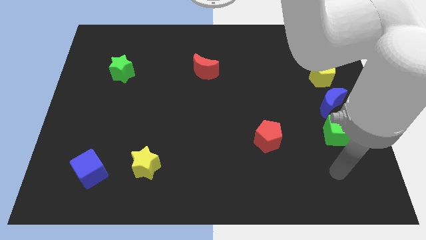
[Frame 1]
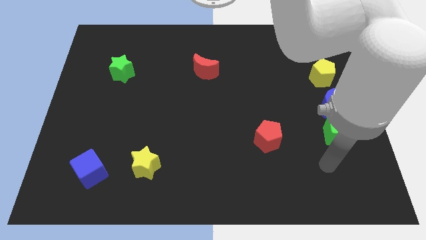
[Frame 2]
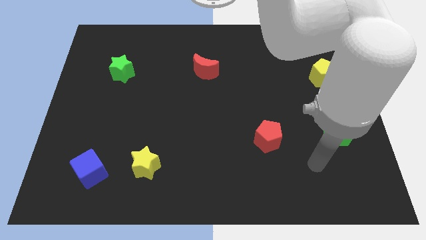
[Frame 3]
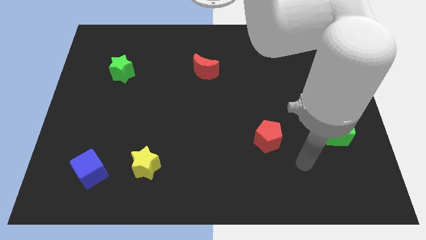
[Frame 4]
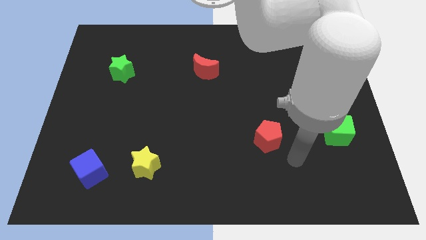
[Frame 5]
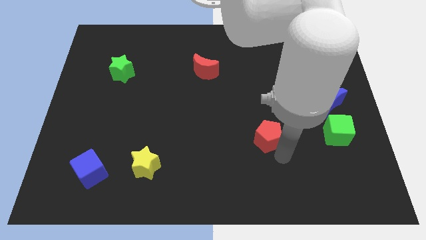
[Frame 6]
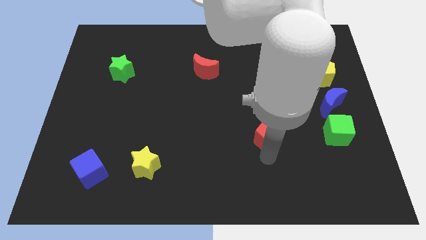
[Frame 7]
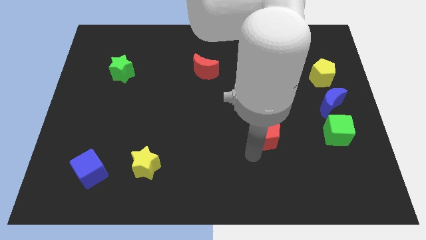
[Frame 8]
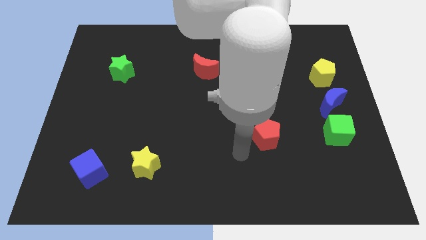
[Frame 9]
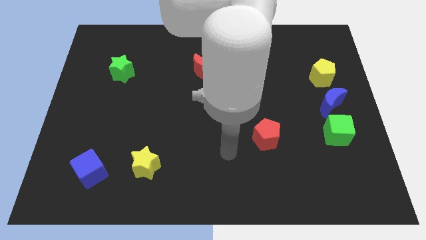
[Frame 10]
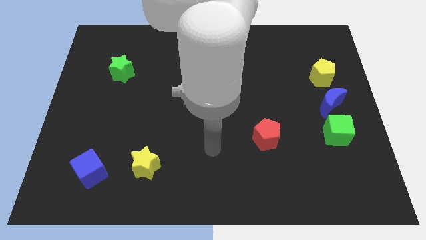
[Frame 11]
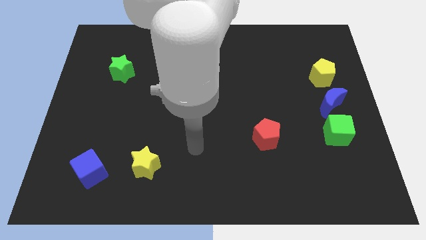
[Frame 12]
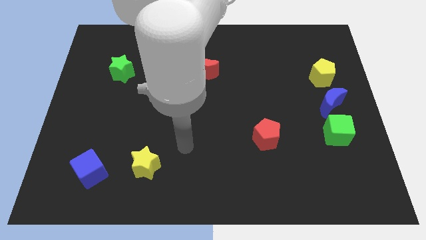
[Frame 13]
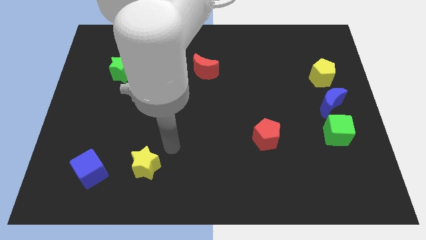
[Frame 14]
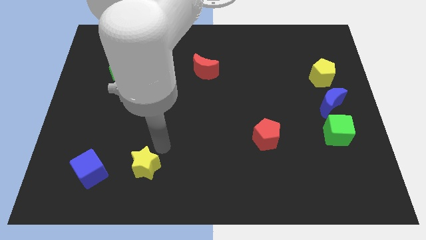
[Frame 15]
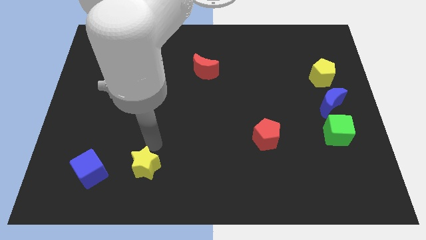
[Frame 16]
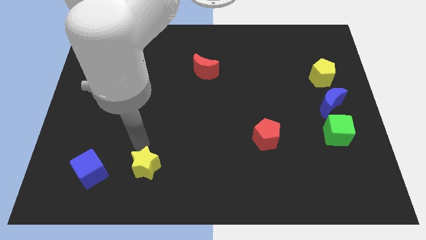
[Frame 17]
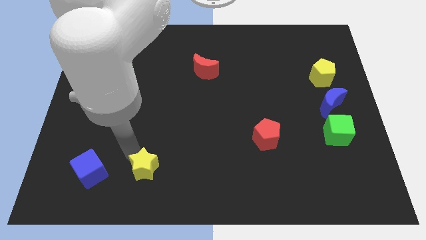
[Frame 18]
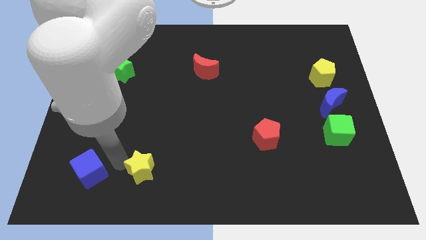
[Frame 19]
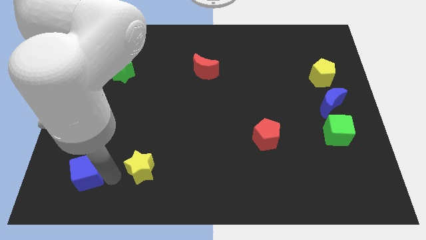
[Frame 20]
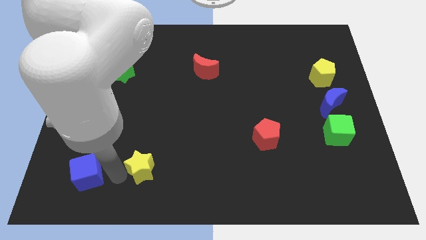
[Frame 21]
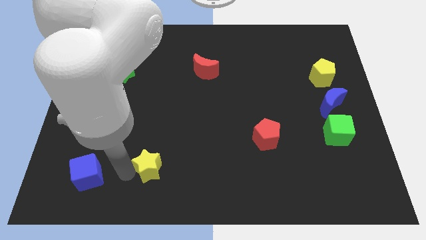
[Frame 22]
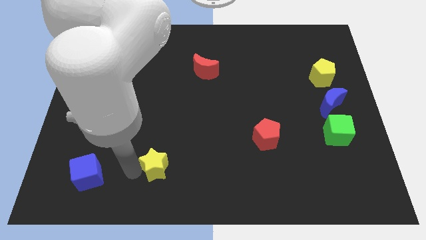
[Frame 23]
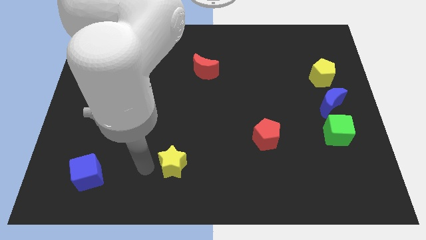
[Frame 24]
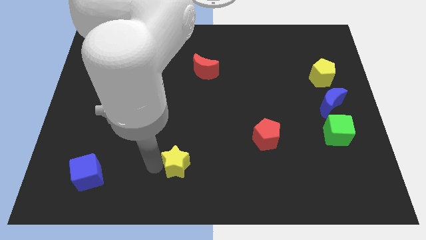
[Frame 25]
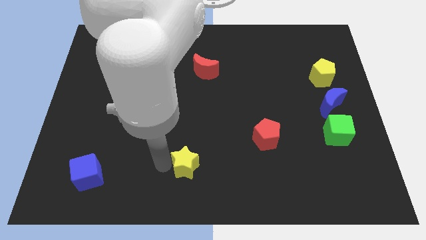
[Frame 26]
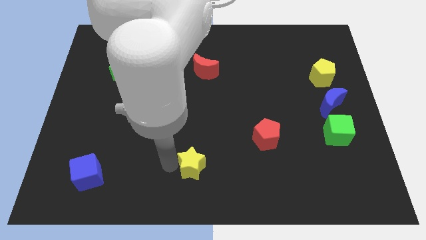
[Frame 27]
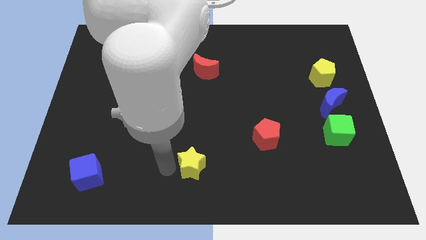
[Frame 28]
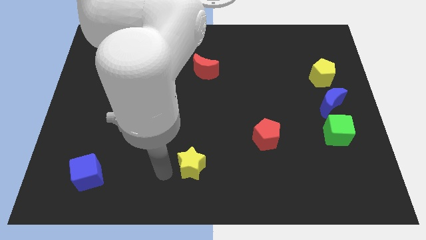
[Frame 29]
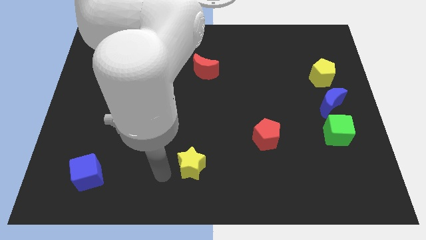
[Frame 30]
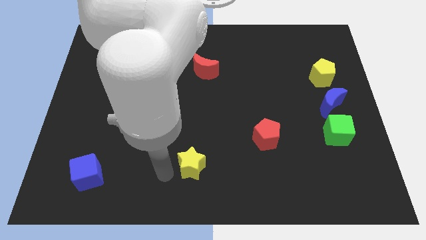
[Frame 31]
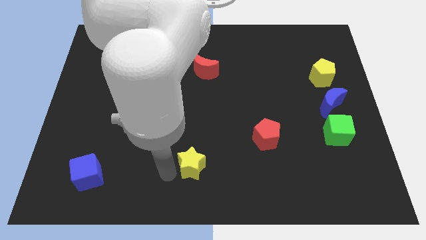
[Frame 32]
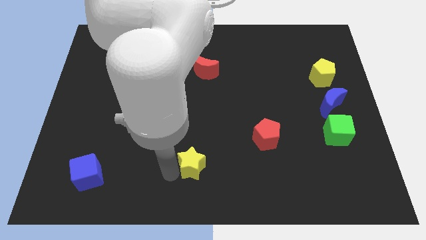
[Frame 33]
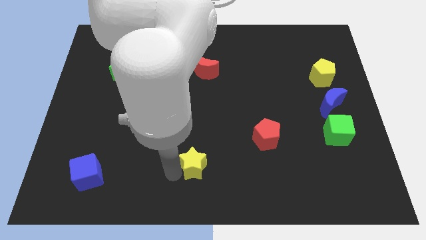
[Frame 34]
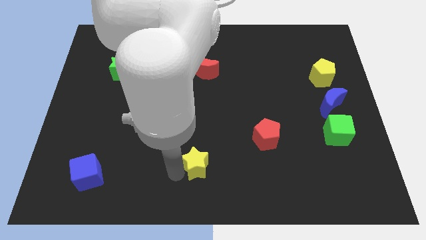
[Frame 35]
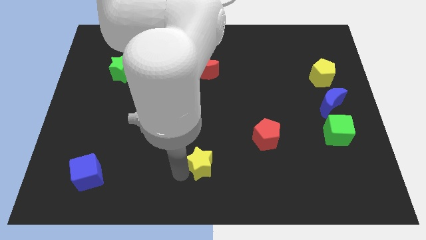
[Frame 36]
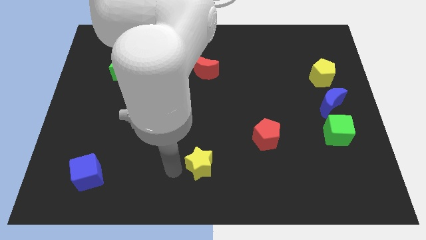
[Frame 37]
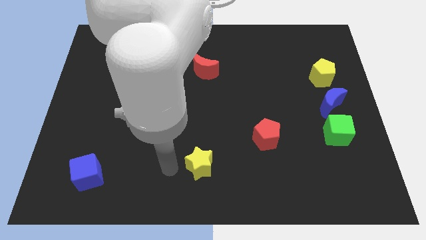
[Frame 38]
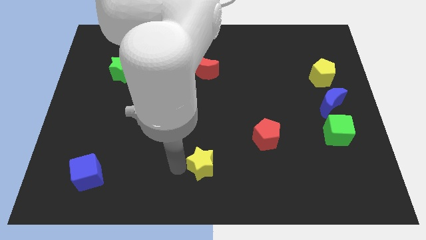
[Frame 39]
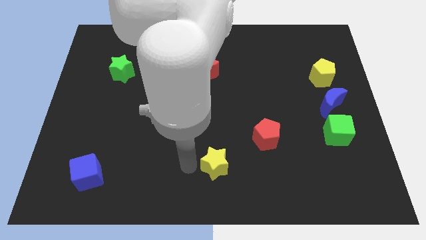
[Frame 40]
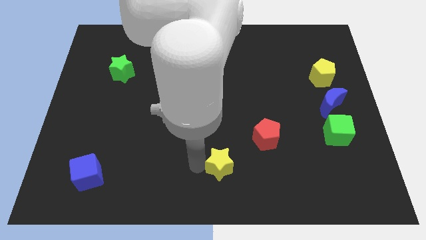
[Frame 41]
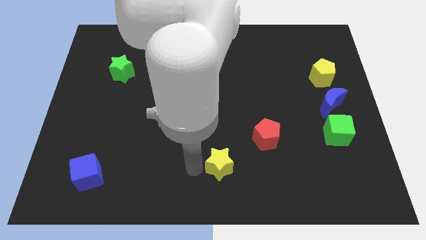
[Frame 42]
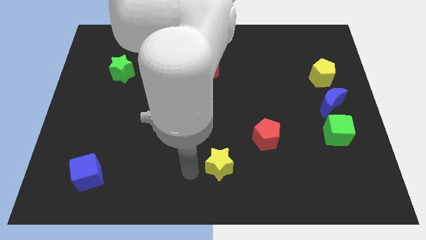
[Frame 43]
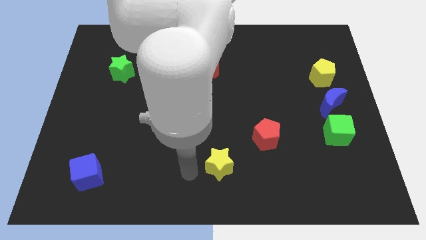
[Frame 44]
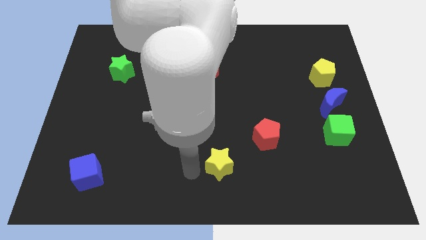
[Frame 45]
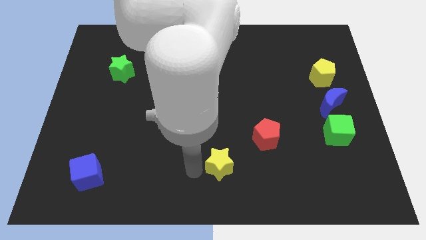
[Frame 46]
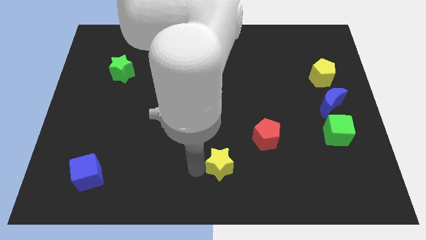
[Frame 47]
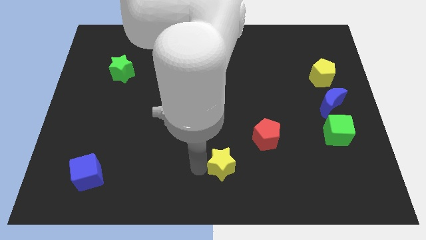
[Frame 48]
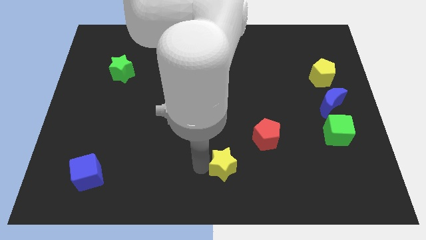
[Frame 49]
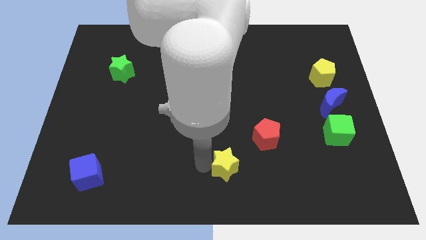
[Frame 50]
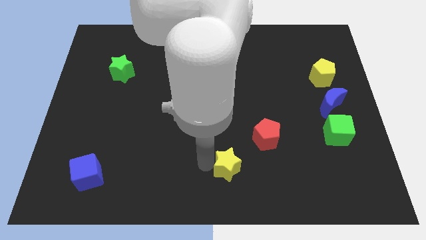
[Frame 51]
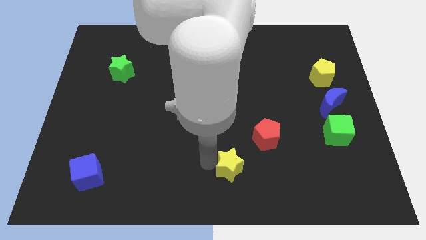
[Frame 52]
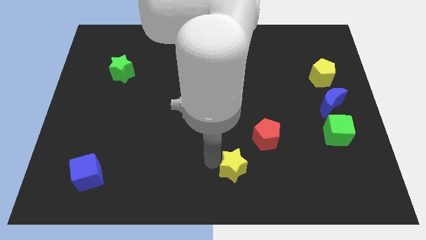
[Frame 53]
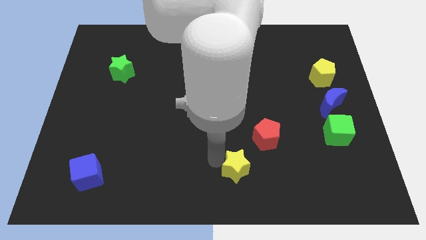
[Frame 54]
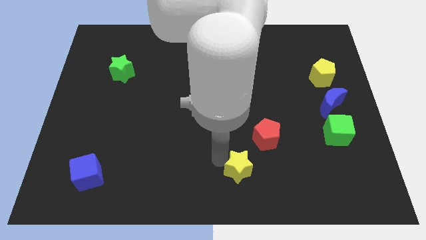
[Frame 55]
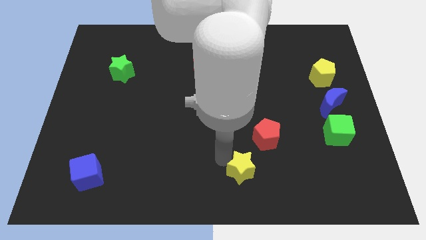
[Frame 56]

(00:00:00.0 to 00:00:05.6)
push the yellow star to the right

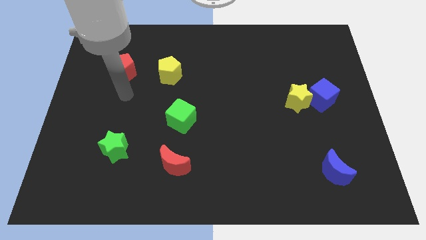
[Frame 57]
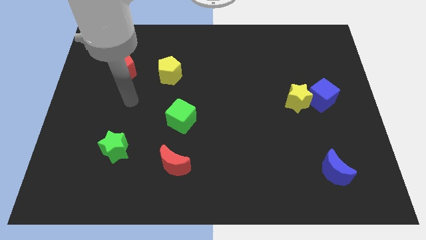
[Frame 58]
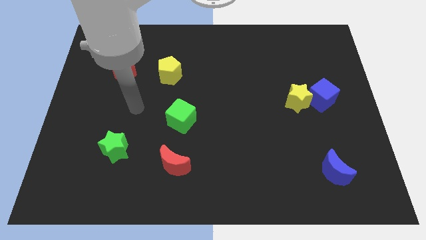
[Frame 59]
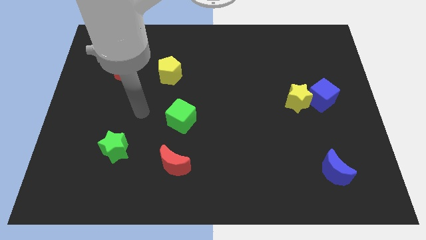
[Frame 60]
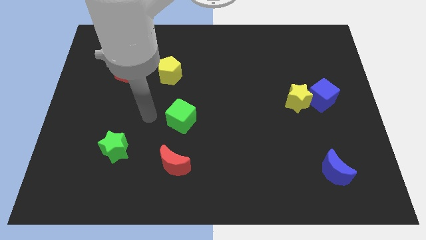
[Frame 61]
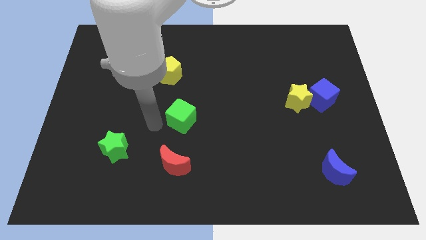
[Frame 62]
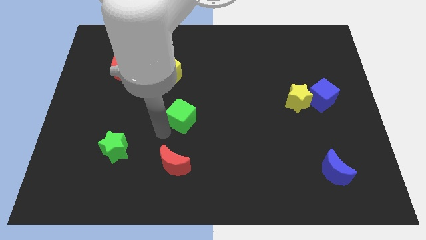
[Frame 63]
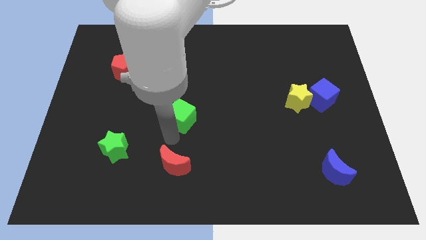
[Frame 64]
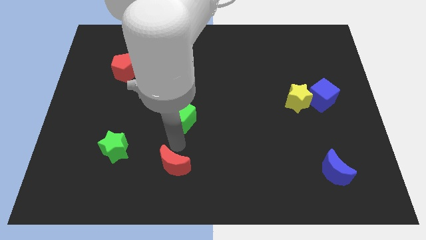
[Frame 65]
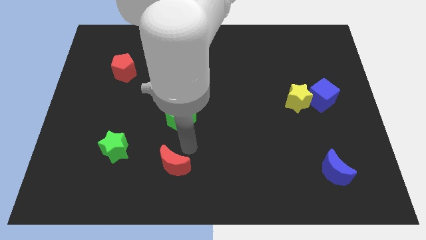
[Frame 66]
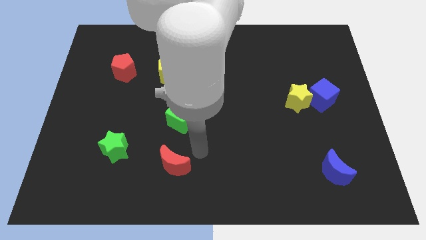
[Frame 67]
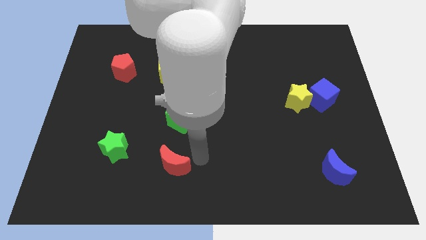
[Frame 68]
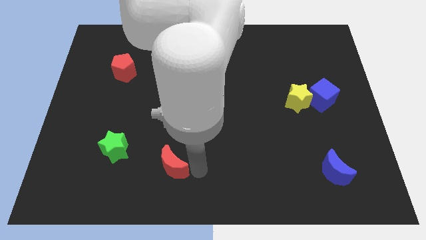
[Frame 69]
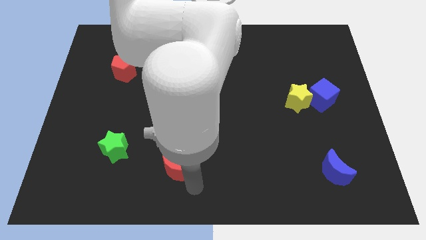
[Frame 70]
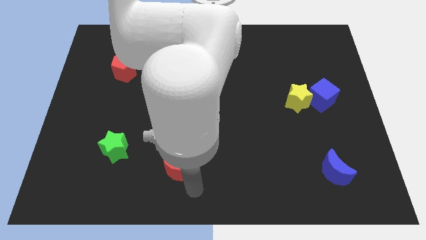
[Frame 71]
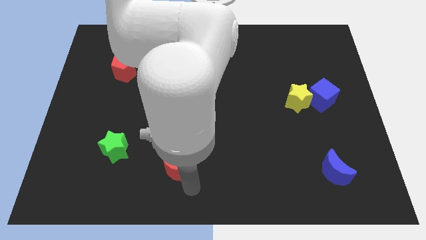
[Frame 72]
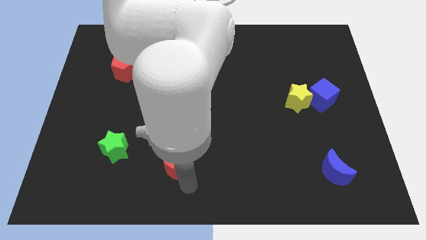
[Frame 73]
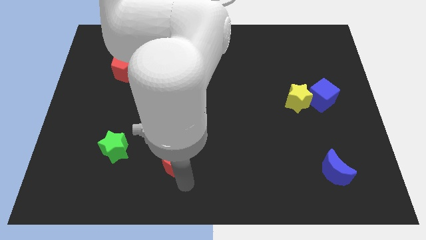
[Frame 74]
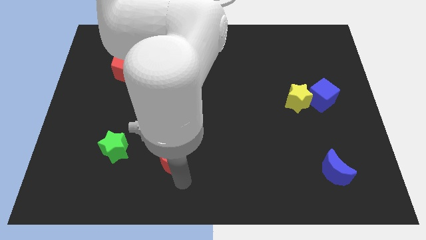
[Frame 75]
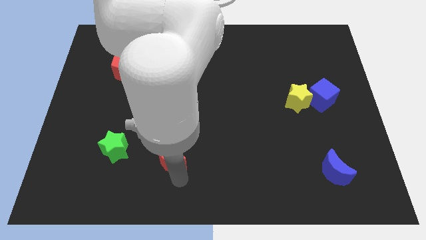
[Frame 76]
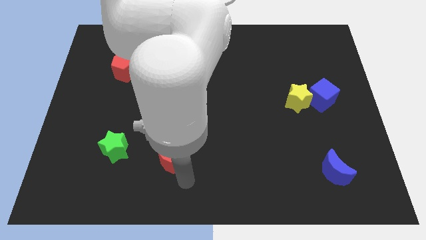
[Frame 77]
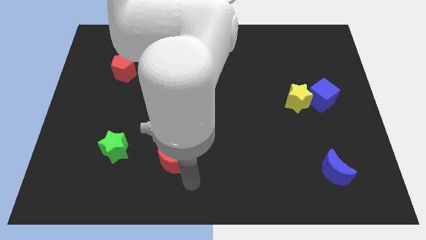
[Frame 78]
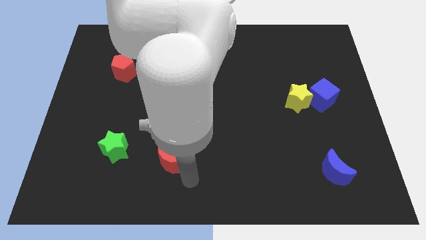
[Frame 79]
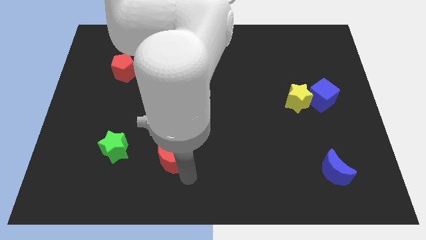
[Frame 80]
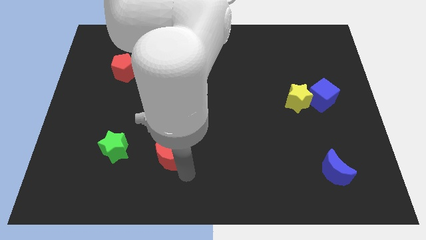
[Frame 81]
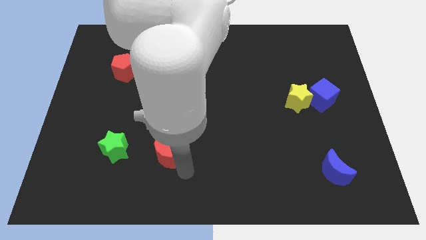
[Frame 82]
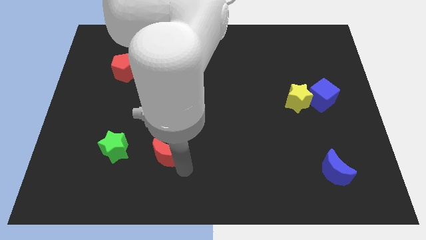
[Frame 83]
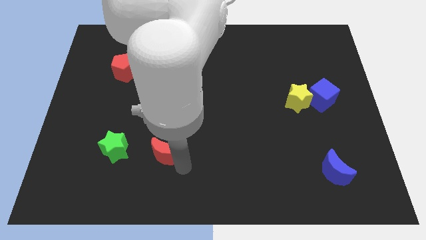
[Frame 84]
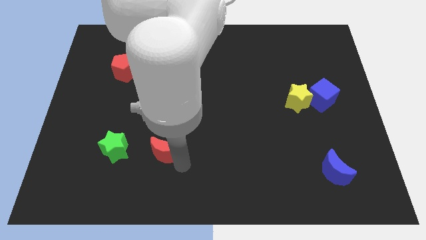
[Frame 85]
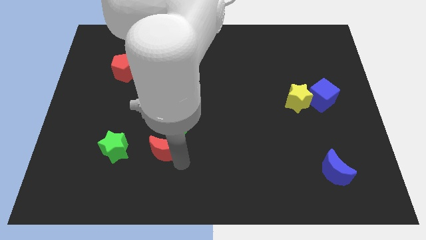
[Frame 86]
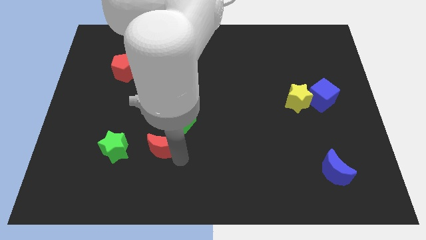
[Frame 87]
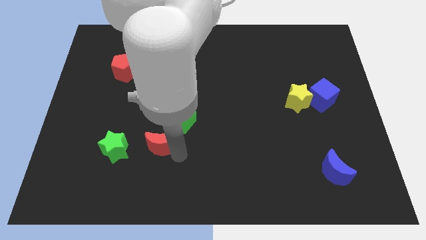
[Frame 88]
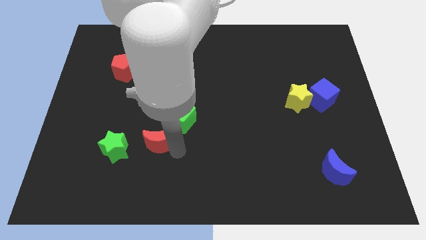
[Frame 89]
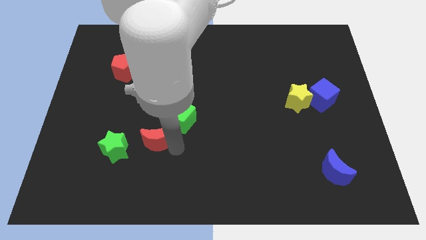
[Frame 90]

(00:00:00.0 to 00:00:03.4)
push the red moon diagonally up and left a little bit
